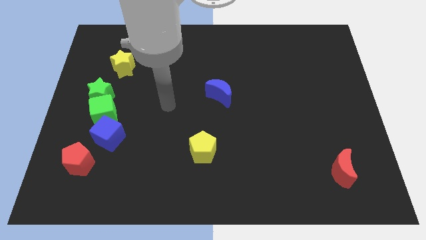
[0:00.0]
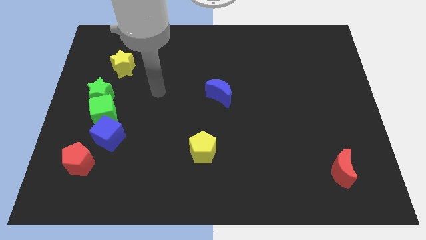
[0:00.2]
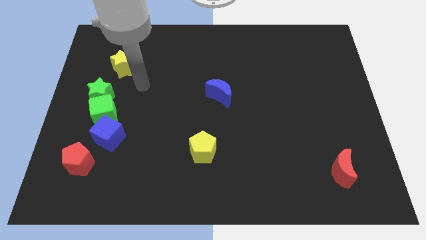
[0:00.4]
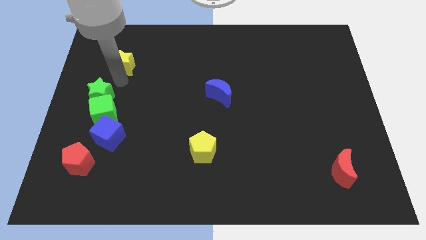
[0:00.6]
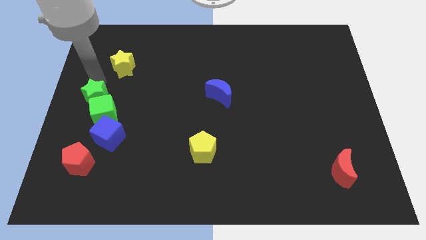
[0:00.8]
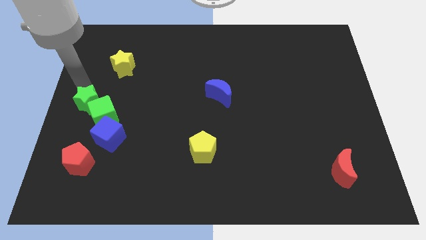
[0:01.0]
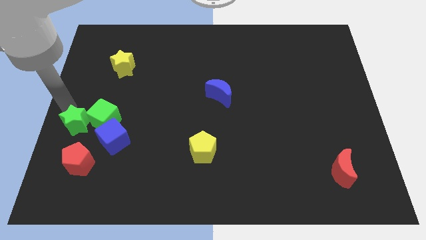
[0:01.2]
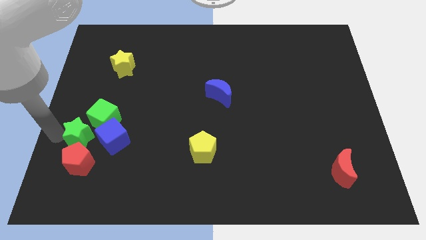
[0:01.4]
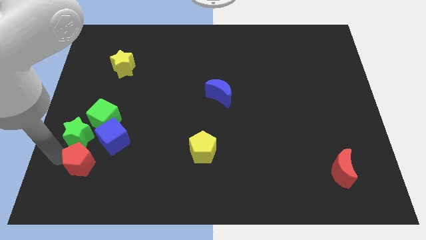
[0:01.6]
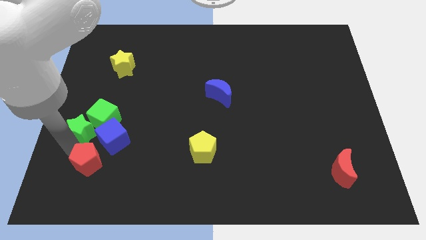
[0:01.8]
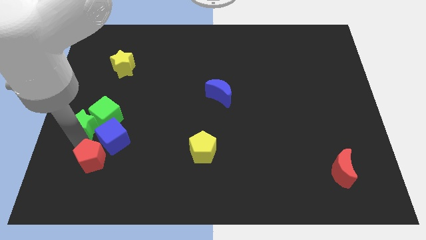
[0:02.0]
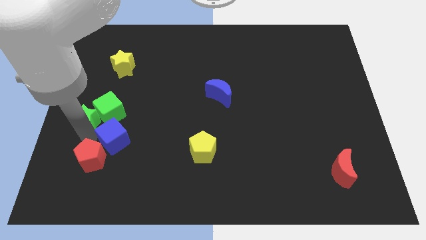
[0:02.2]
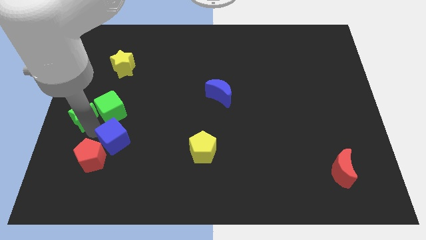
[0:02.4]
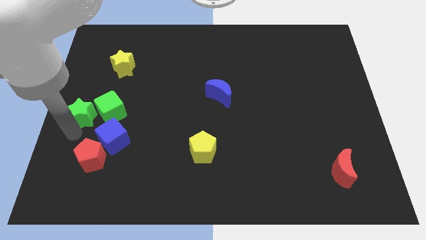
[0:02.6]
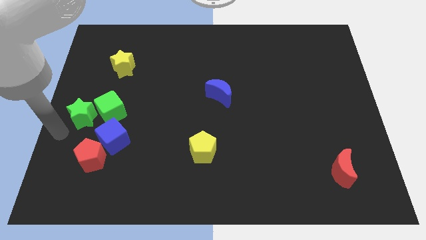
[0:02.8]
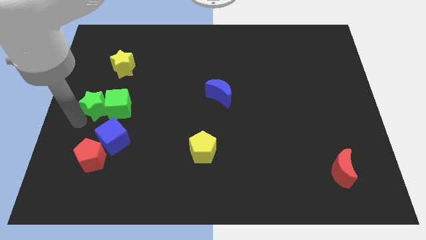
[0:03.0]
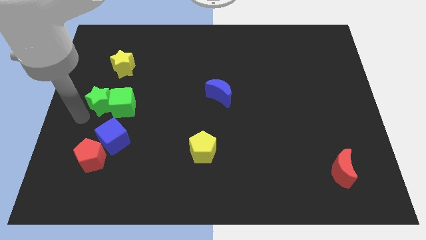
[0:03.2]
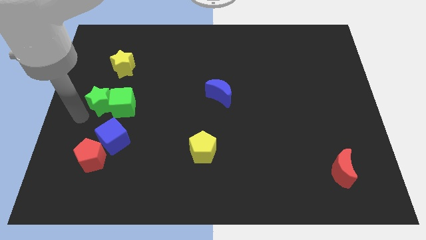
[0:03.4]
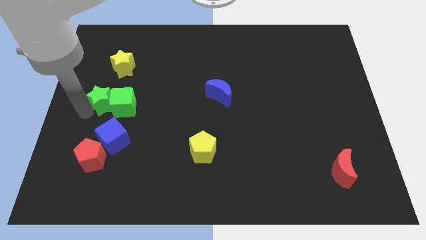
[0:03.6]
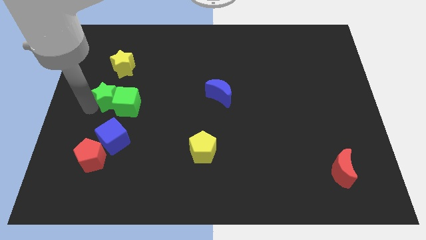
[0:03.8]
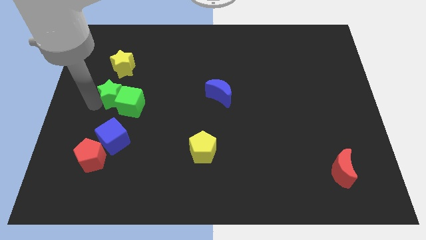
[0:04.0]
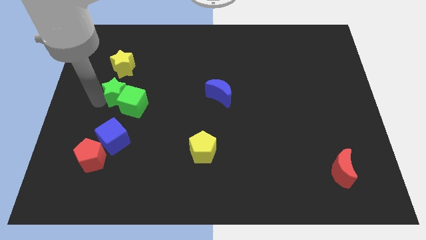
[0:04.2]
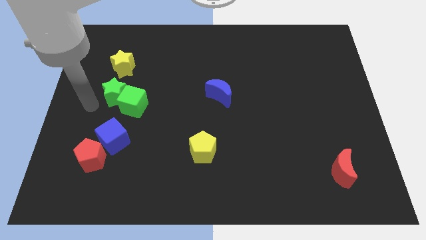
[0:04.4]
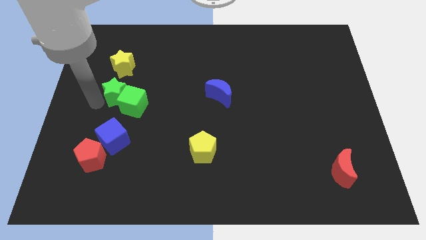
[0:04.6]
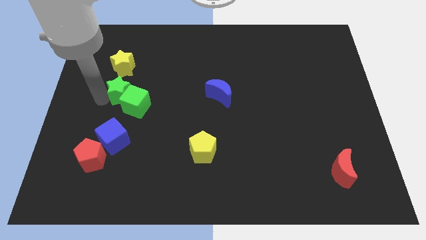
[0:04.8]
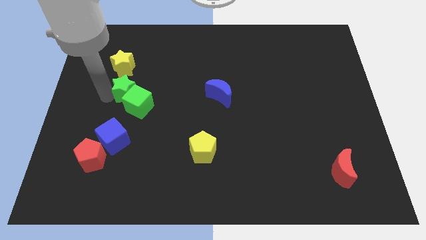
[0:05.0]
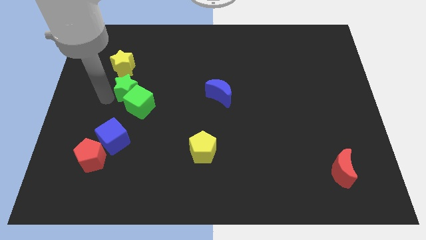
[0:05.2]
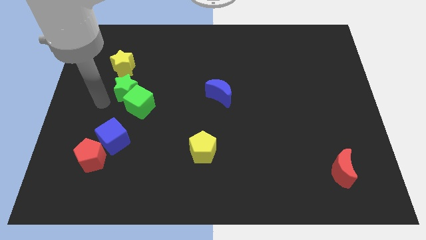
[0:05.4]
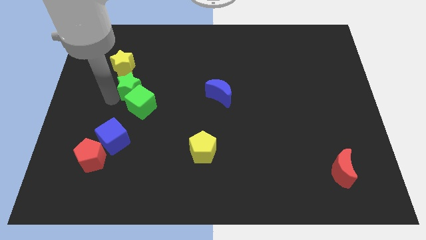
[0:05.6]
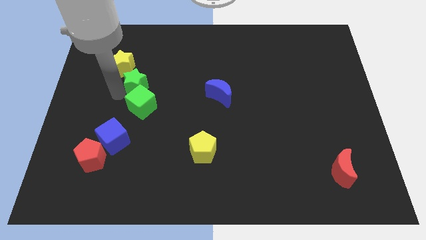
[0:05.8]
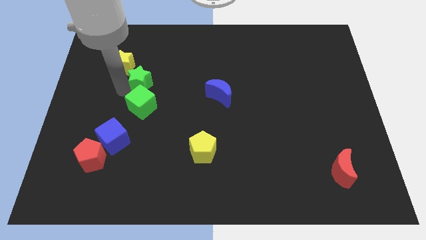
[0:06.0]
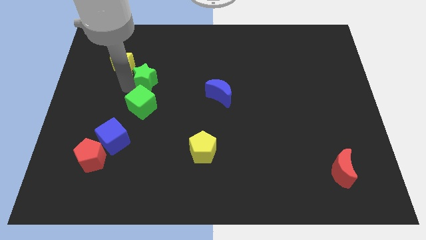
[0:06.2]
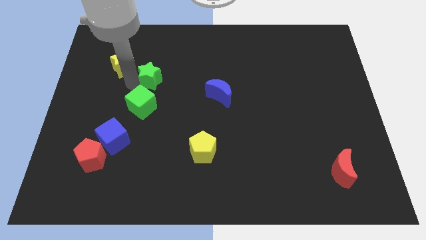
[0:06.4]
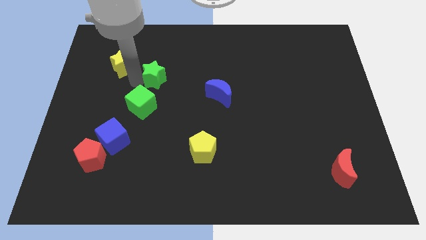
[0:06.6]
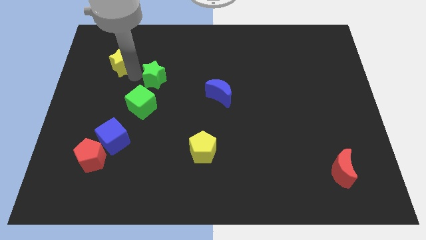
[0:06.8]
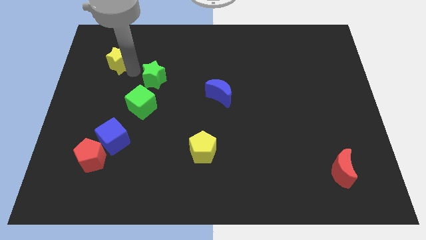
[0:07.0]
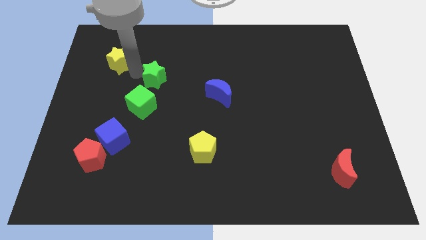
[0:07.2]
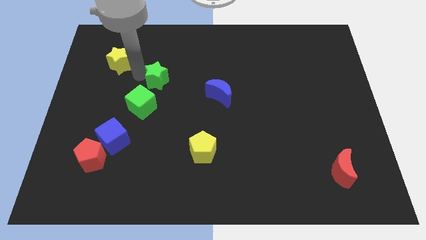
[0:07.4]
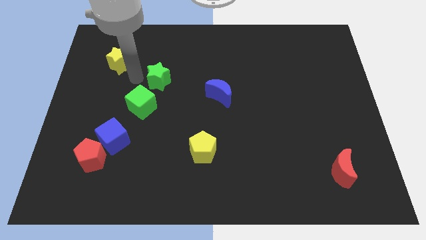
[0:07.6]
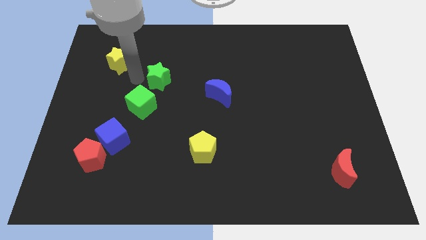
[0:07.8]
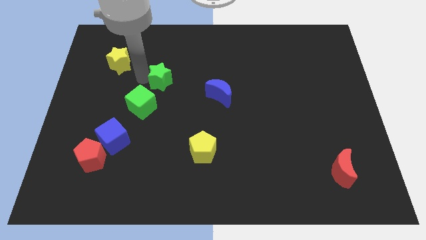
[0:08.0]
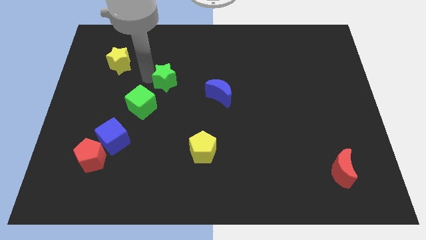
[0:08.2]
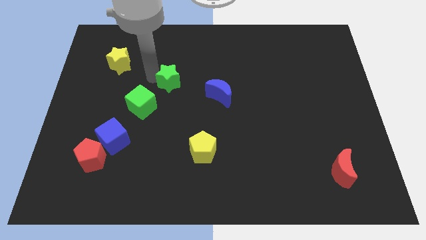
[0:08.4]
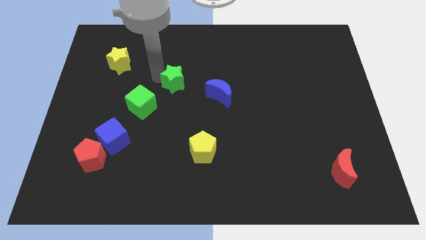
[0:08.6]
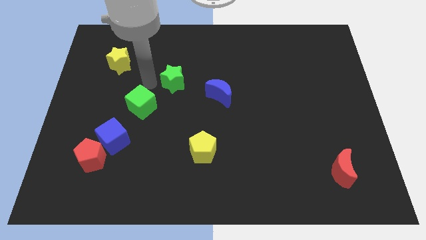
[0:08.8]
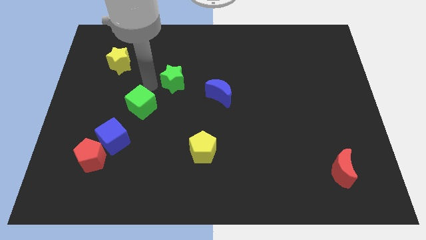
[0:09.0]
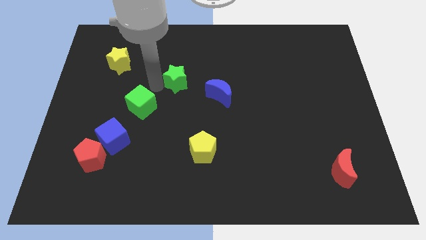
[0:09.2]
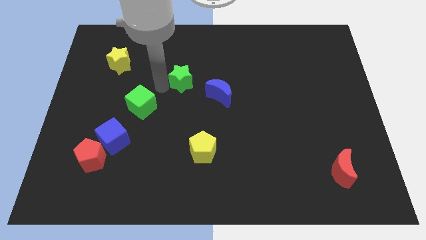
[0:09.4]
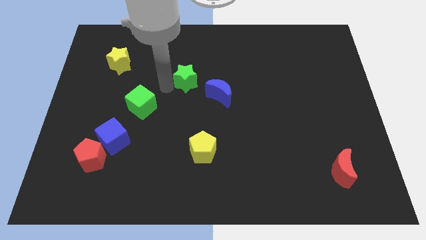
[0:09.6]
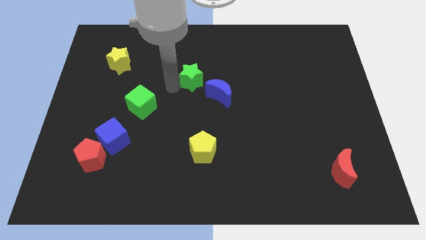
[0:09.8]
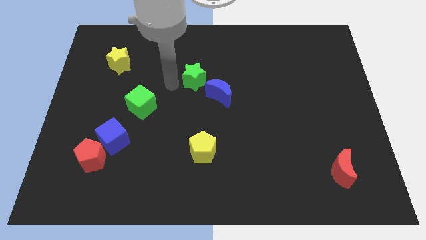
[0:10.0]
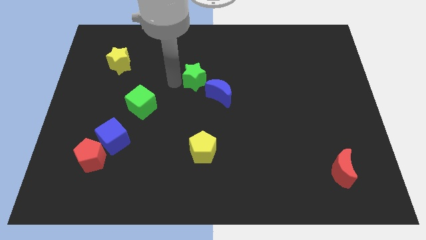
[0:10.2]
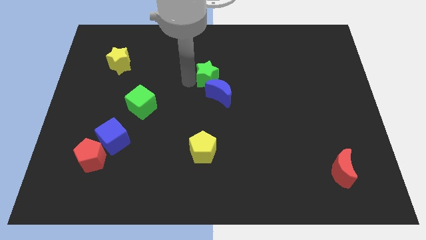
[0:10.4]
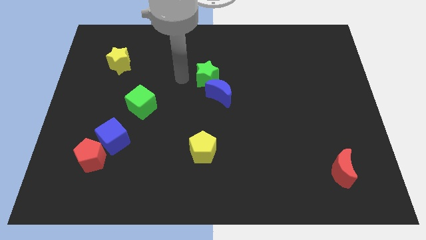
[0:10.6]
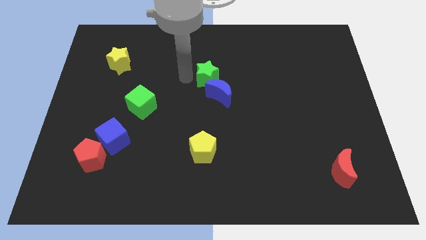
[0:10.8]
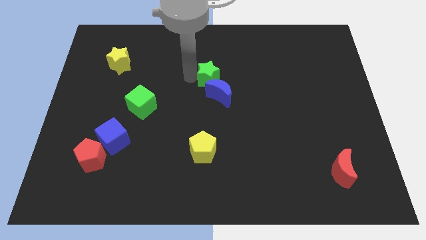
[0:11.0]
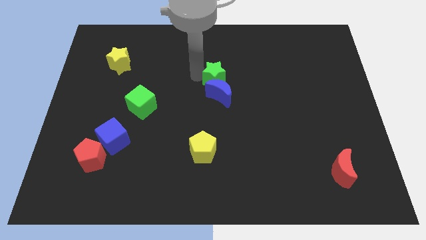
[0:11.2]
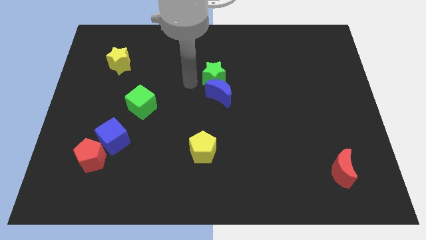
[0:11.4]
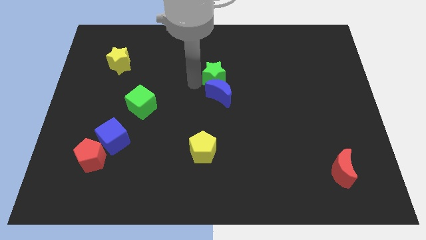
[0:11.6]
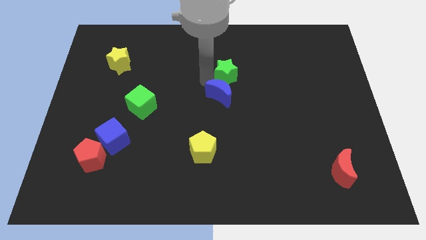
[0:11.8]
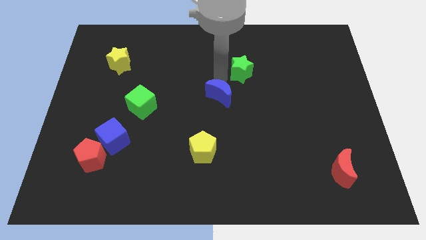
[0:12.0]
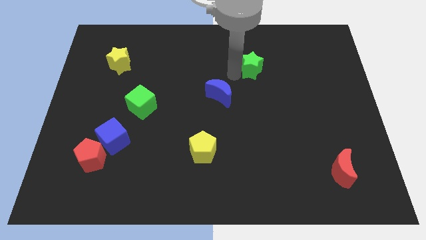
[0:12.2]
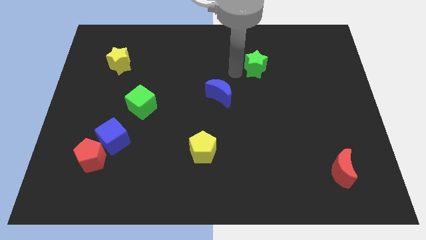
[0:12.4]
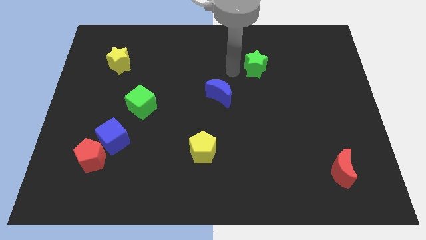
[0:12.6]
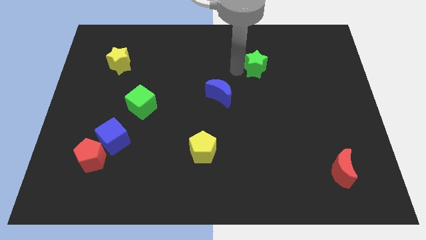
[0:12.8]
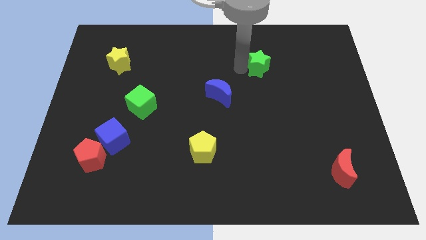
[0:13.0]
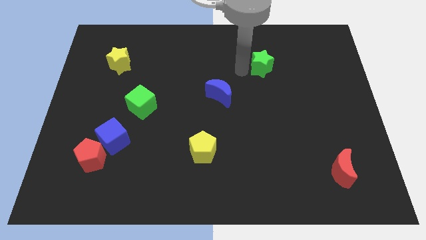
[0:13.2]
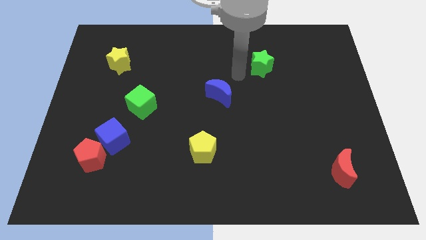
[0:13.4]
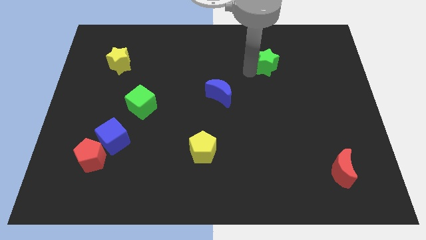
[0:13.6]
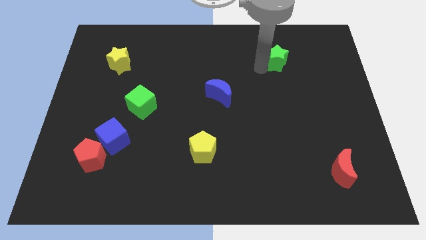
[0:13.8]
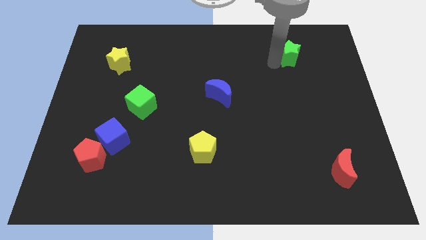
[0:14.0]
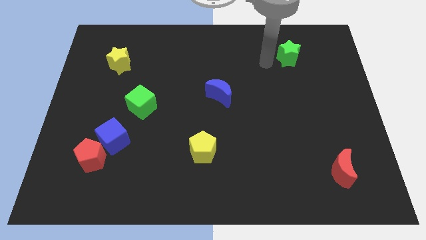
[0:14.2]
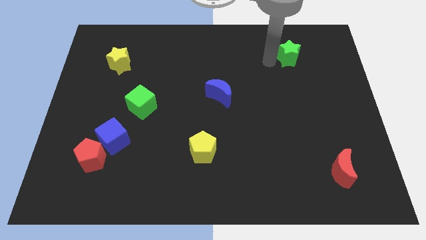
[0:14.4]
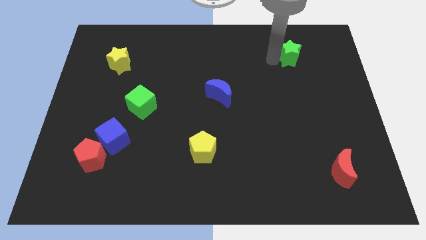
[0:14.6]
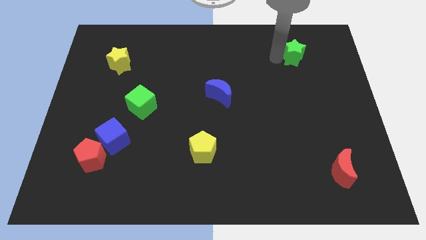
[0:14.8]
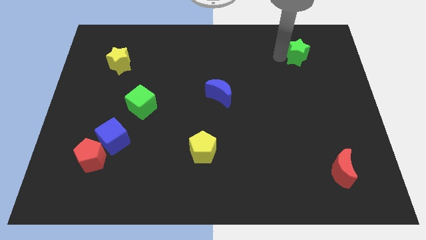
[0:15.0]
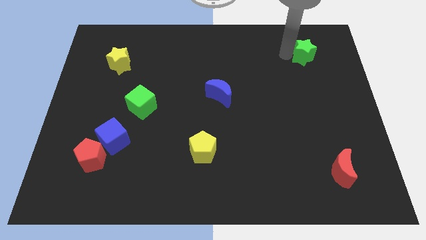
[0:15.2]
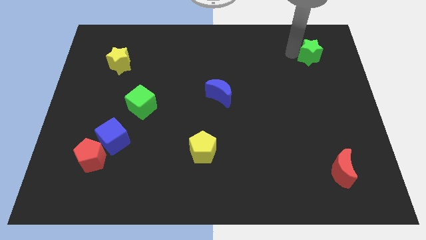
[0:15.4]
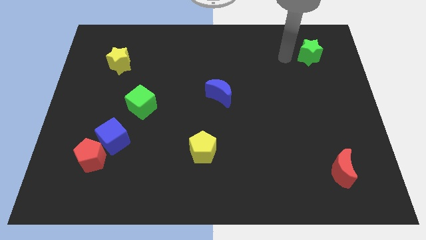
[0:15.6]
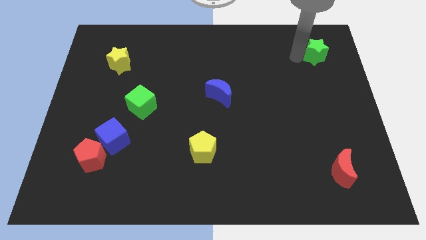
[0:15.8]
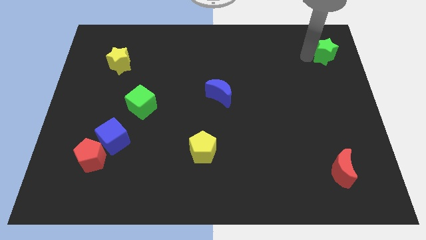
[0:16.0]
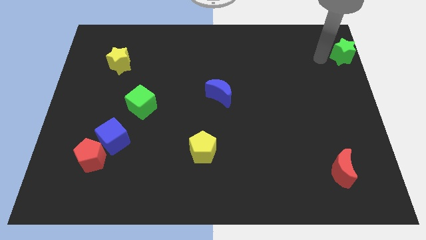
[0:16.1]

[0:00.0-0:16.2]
slide the green star to the top right corner
